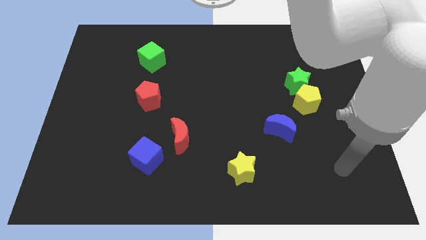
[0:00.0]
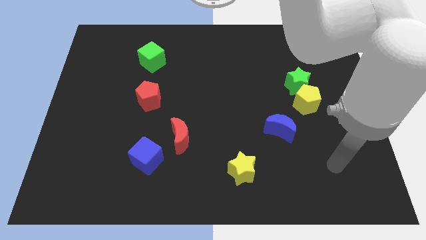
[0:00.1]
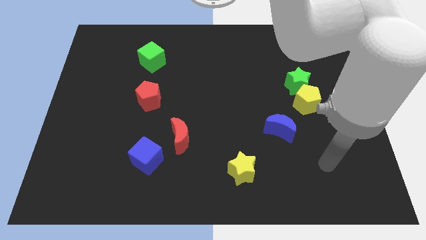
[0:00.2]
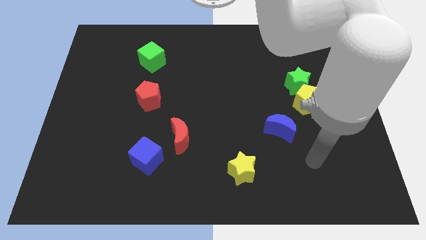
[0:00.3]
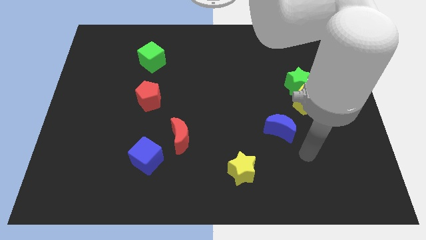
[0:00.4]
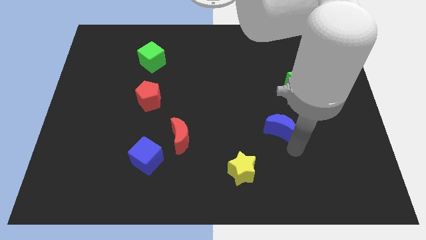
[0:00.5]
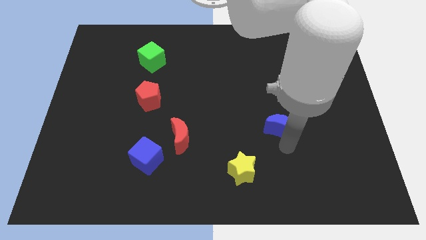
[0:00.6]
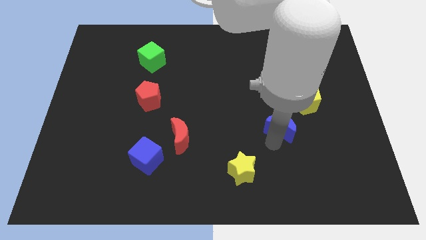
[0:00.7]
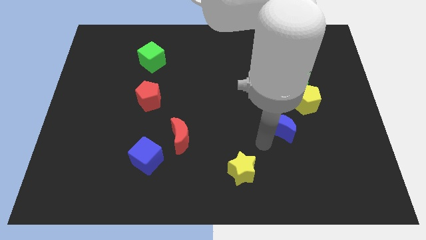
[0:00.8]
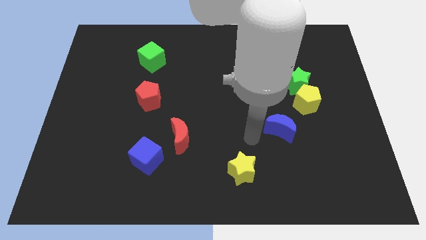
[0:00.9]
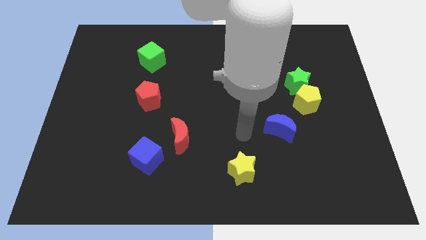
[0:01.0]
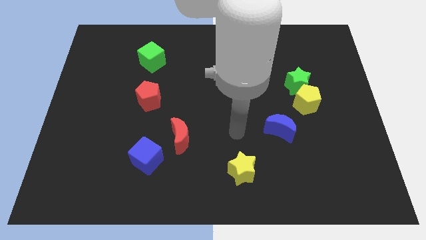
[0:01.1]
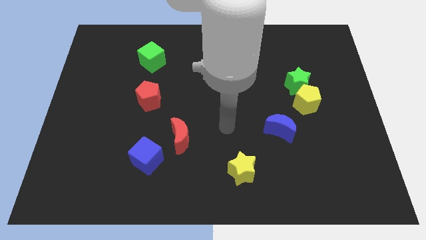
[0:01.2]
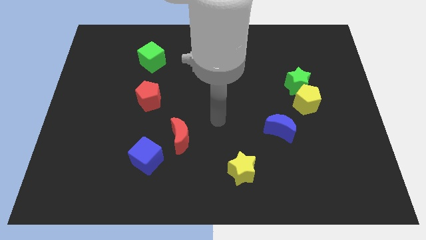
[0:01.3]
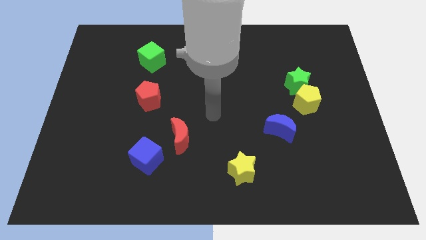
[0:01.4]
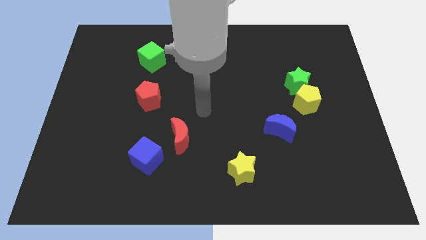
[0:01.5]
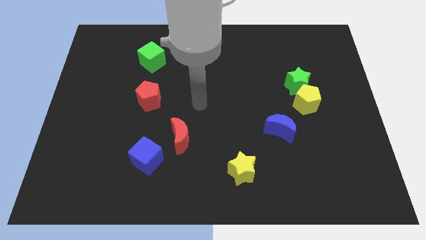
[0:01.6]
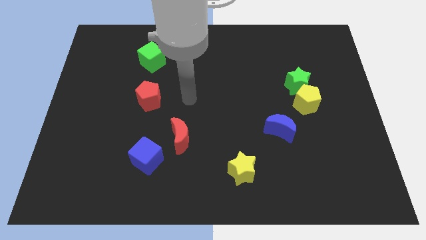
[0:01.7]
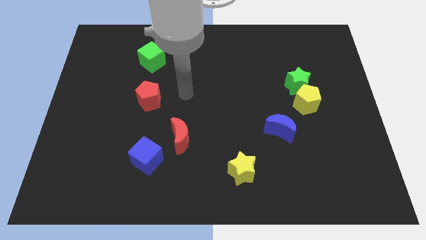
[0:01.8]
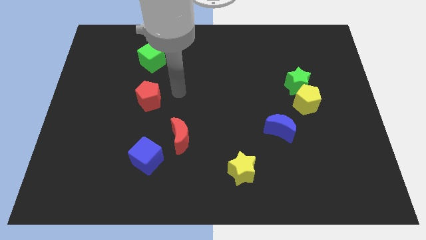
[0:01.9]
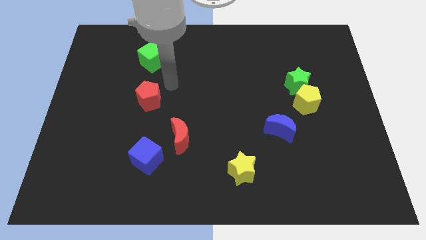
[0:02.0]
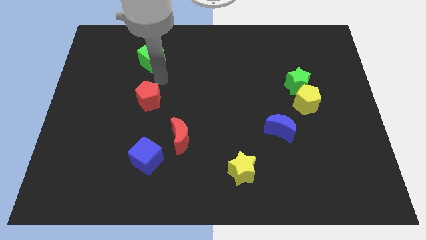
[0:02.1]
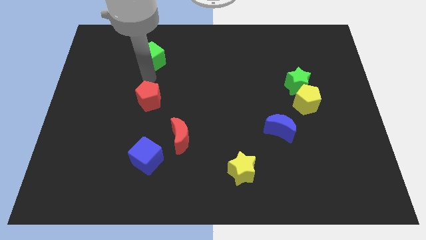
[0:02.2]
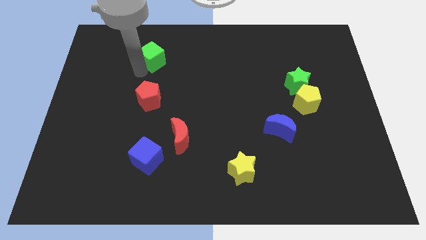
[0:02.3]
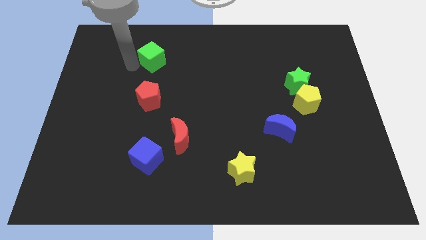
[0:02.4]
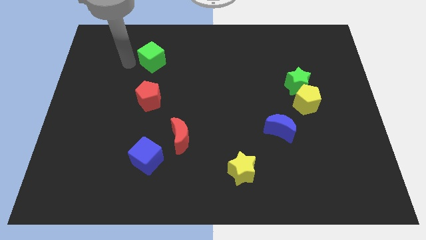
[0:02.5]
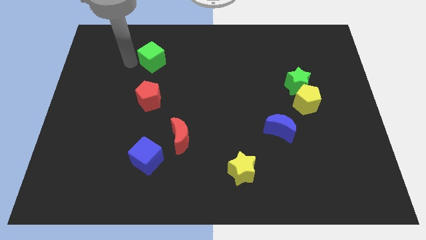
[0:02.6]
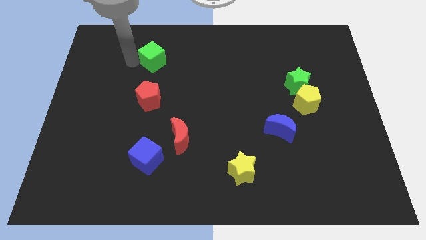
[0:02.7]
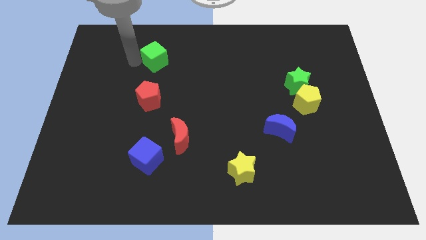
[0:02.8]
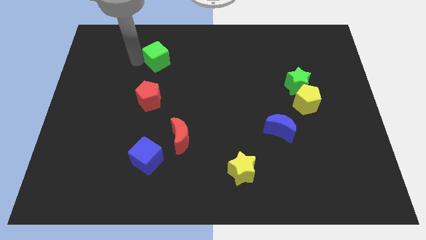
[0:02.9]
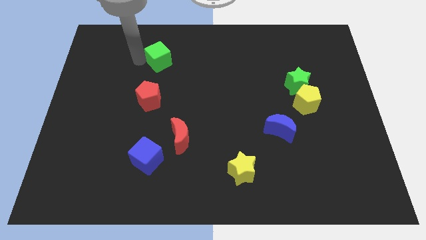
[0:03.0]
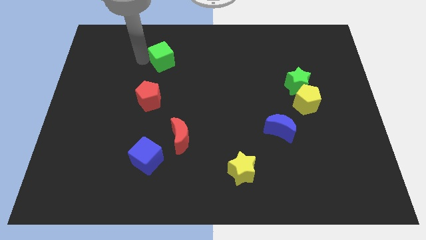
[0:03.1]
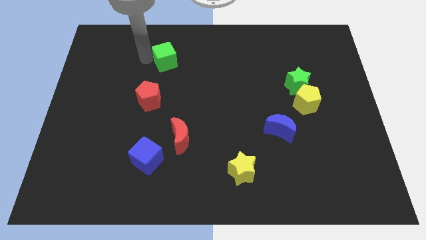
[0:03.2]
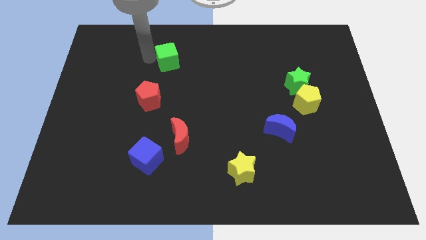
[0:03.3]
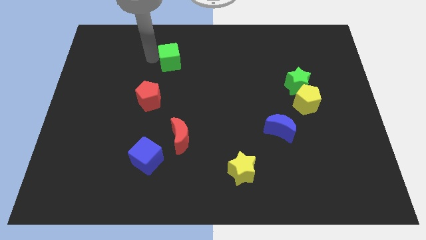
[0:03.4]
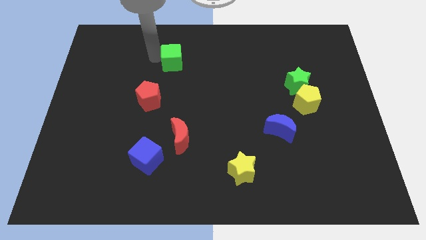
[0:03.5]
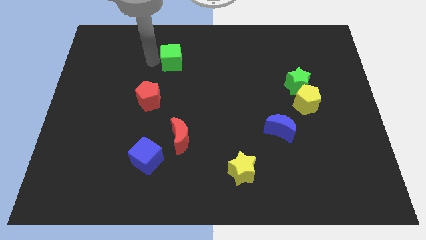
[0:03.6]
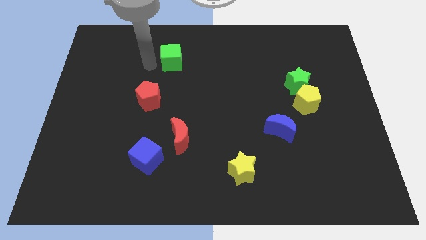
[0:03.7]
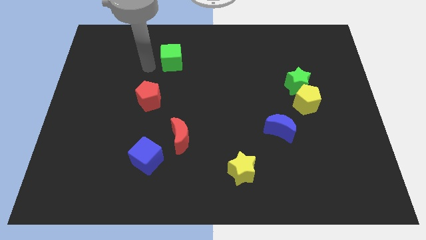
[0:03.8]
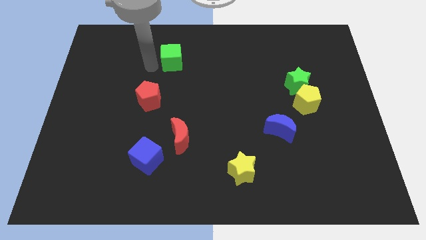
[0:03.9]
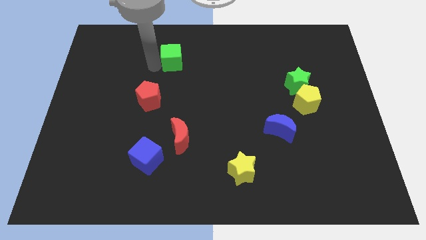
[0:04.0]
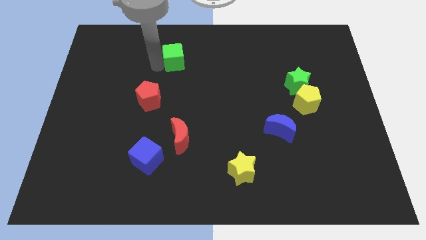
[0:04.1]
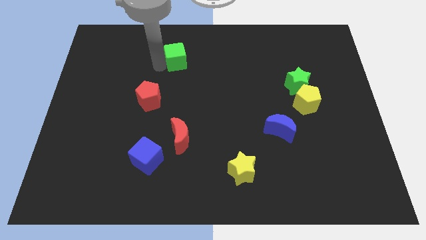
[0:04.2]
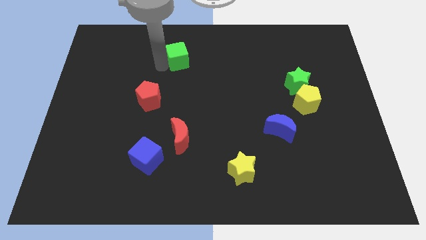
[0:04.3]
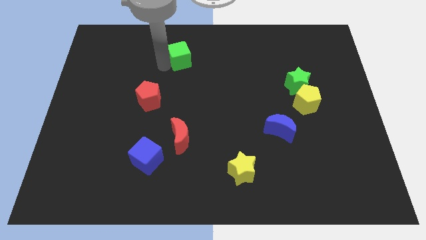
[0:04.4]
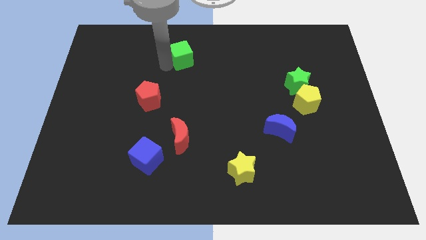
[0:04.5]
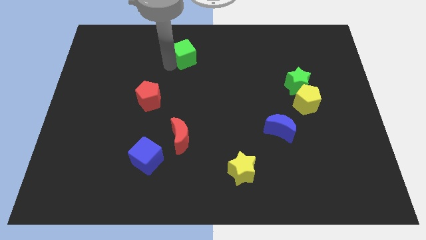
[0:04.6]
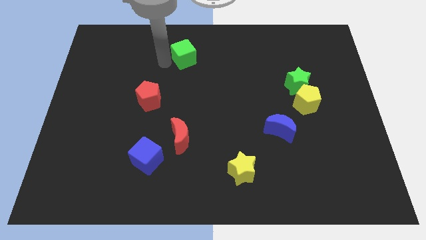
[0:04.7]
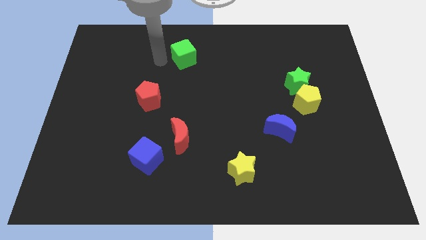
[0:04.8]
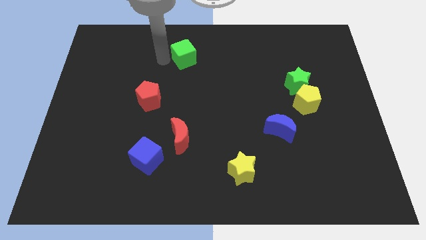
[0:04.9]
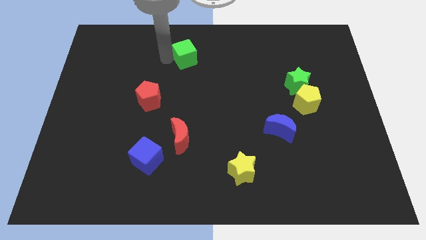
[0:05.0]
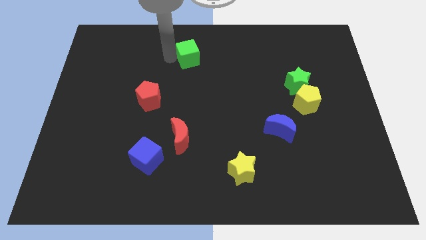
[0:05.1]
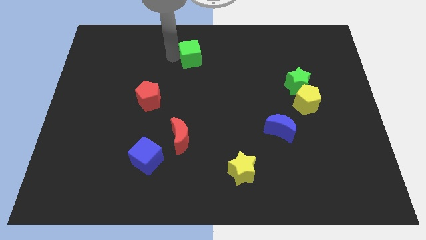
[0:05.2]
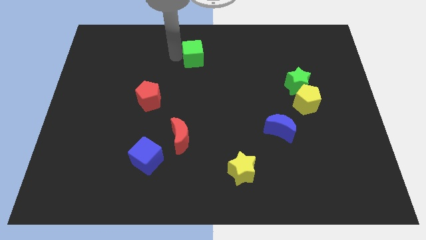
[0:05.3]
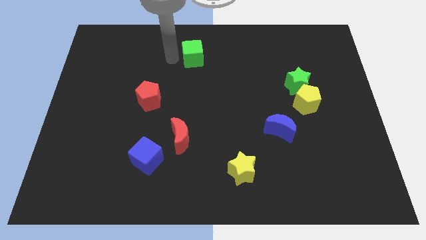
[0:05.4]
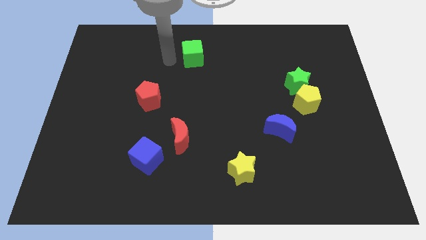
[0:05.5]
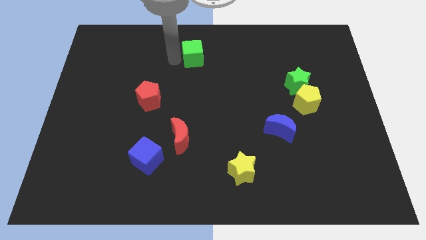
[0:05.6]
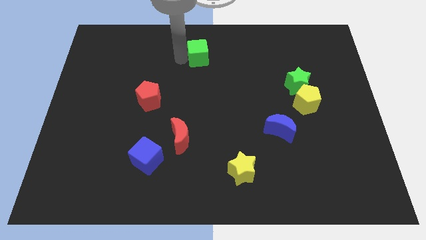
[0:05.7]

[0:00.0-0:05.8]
move the green cube to the towards your base
